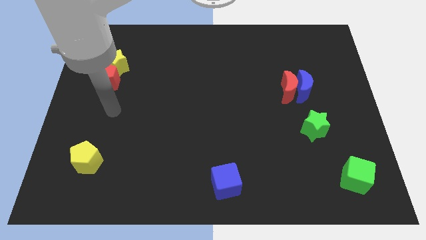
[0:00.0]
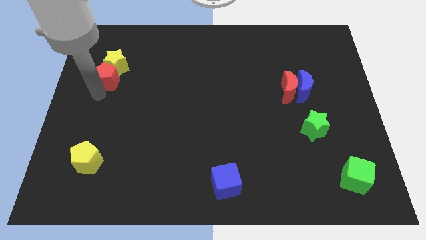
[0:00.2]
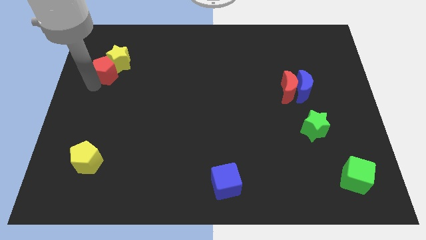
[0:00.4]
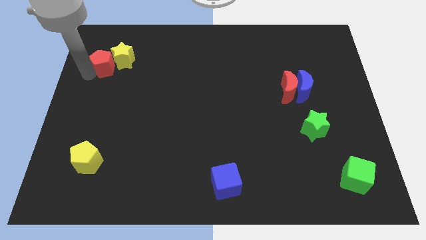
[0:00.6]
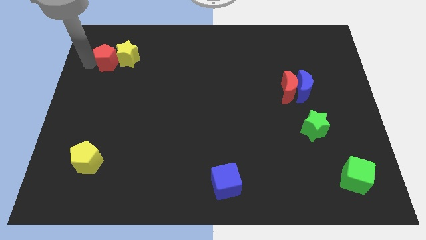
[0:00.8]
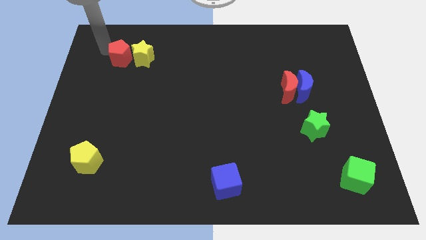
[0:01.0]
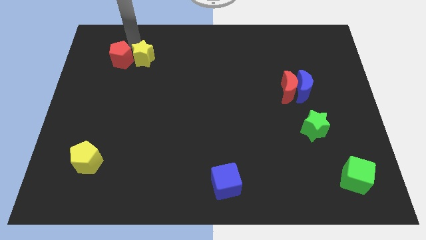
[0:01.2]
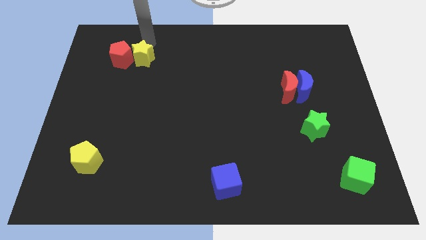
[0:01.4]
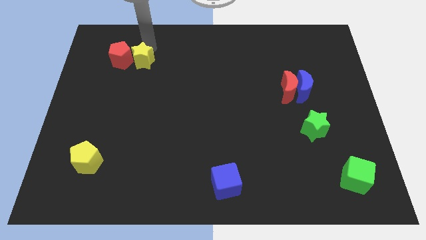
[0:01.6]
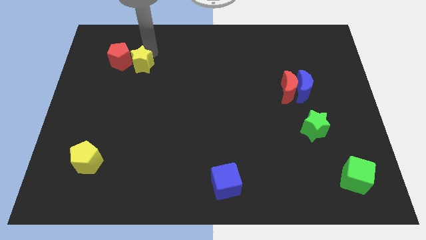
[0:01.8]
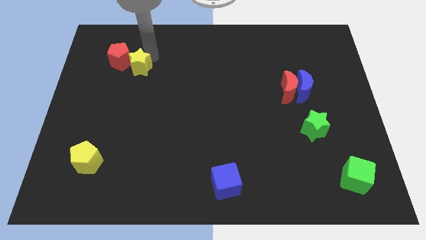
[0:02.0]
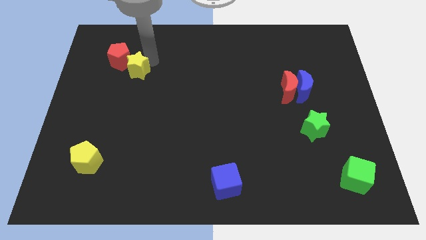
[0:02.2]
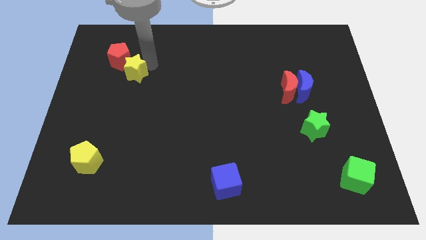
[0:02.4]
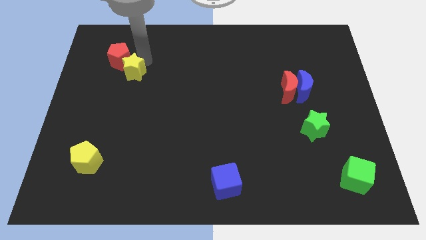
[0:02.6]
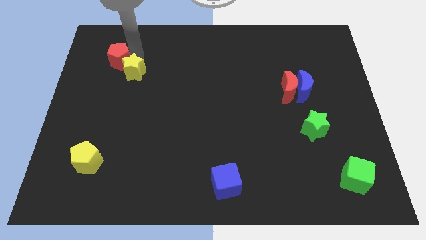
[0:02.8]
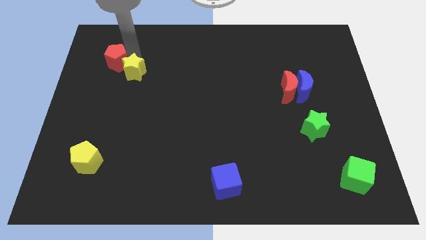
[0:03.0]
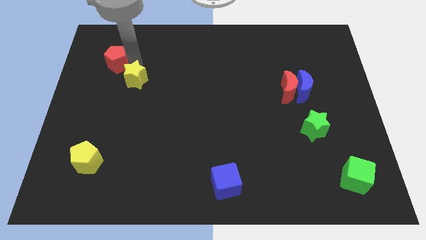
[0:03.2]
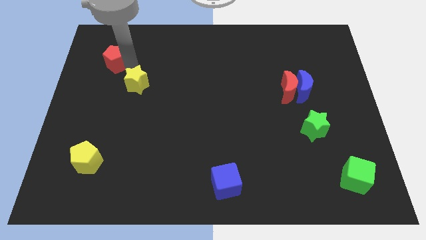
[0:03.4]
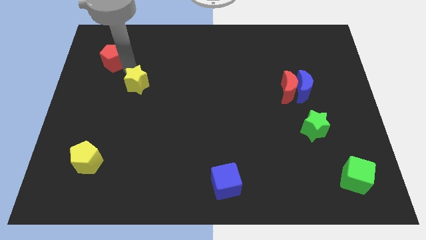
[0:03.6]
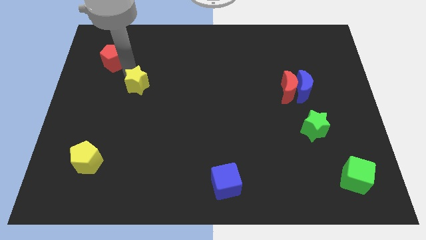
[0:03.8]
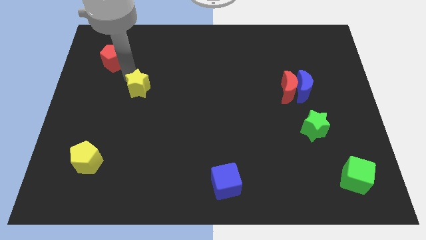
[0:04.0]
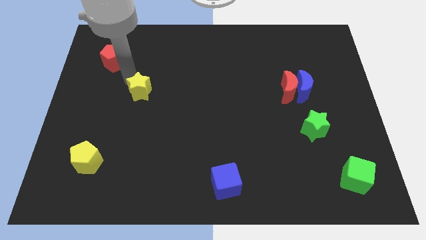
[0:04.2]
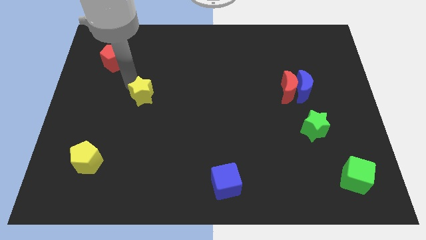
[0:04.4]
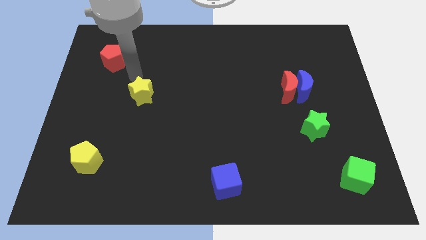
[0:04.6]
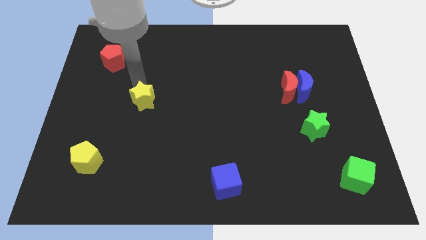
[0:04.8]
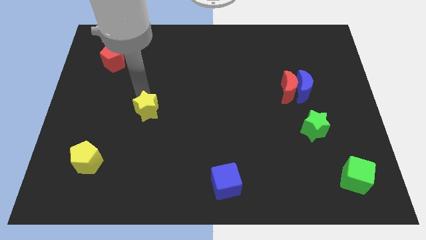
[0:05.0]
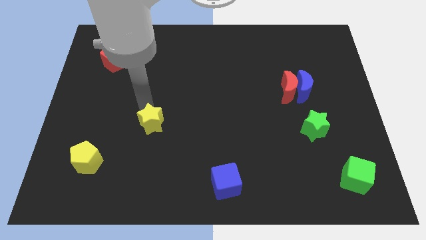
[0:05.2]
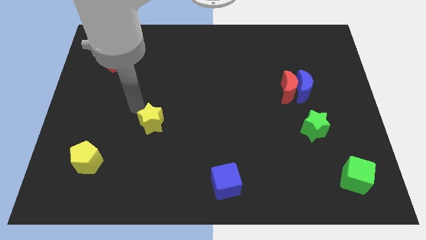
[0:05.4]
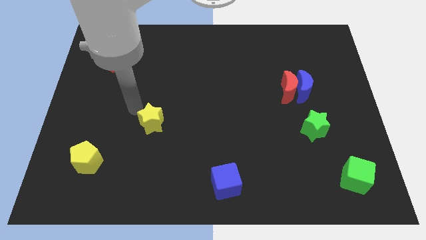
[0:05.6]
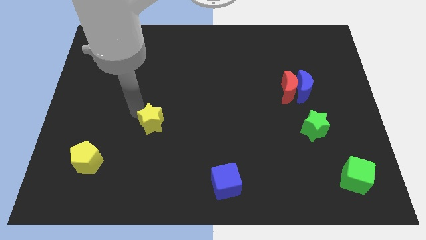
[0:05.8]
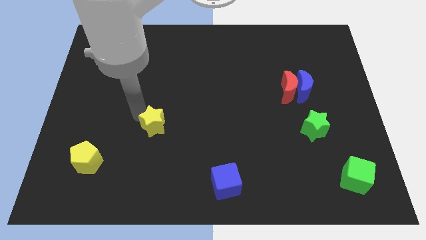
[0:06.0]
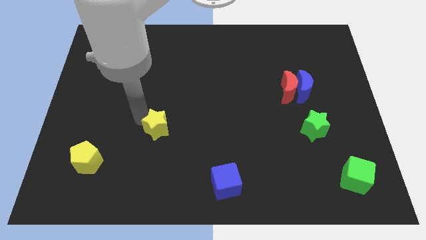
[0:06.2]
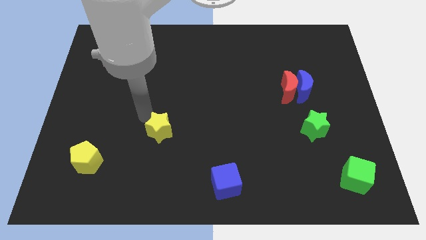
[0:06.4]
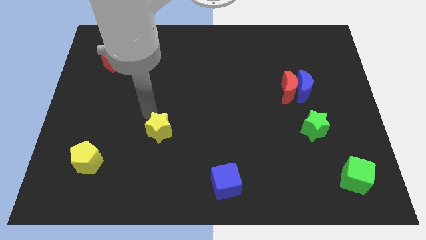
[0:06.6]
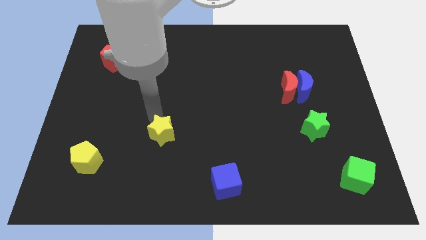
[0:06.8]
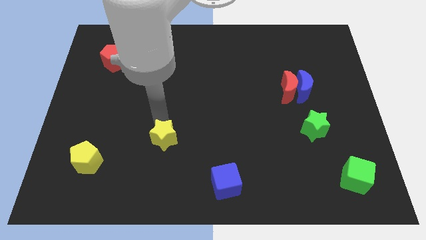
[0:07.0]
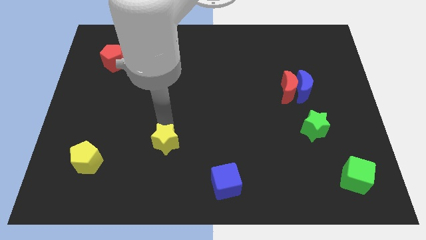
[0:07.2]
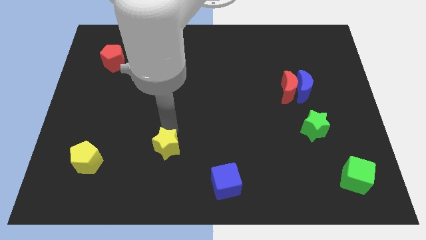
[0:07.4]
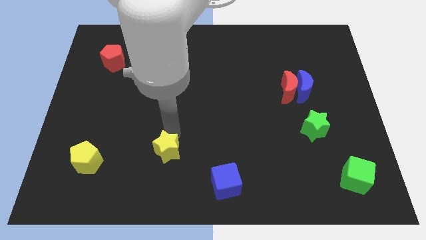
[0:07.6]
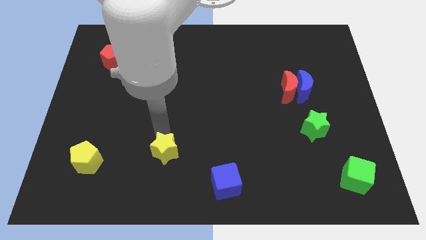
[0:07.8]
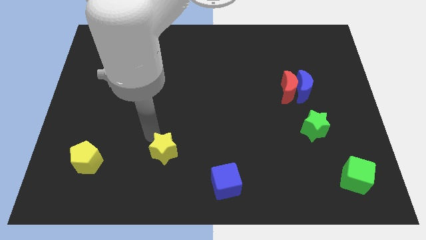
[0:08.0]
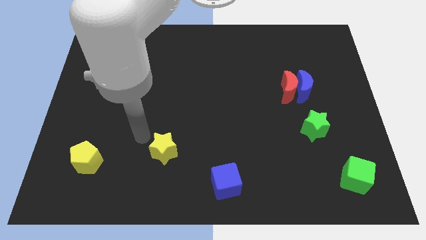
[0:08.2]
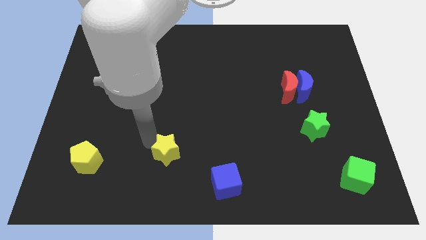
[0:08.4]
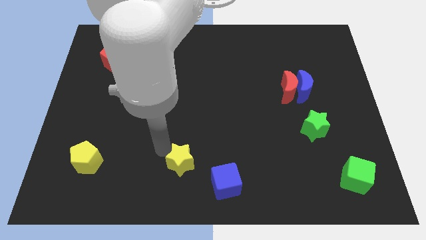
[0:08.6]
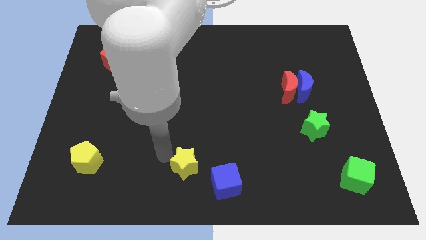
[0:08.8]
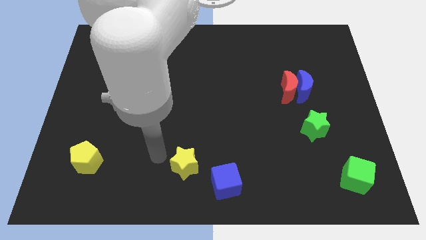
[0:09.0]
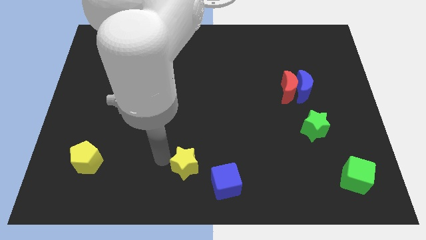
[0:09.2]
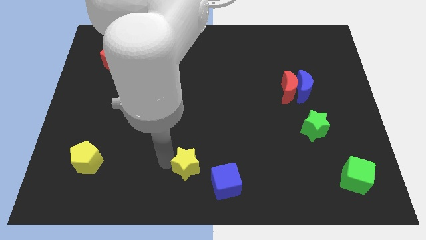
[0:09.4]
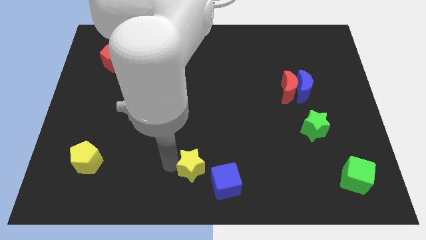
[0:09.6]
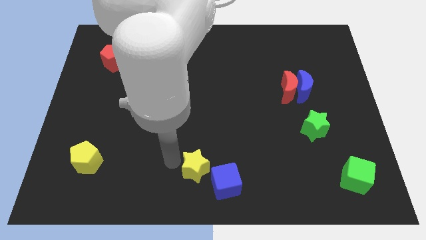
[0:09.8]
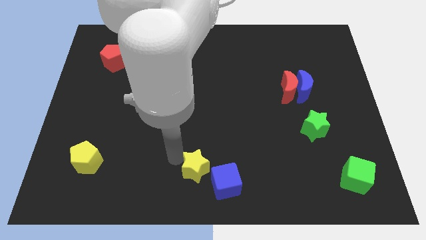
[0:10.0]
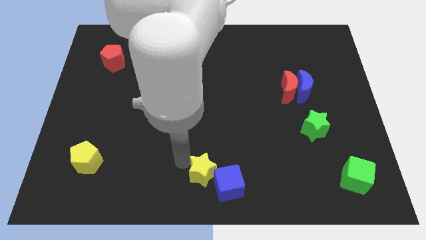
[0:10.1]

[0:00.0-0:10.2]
slide the yellow star close to the blue cube

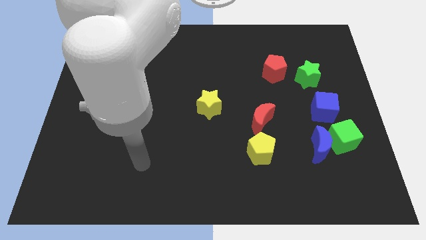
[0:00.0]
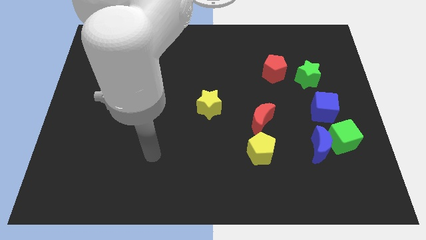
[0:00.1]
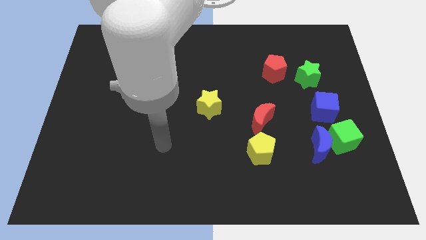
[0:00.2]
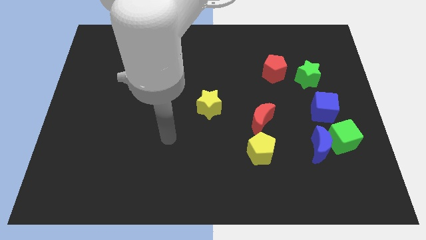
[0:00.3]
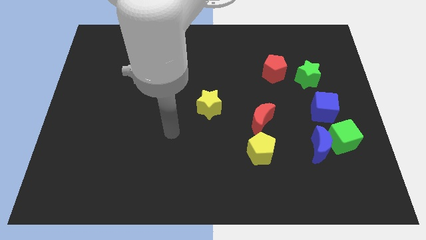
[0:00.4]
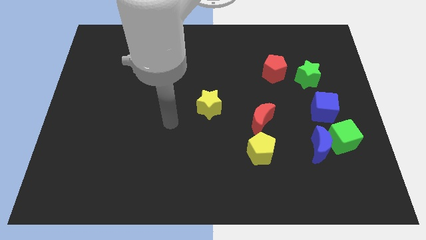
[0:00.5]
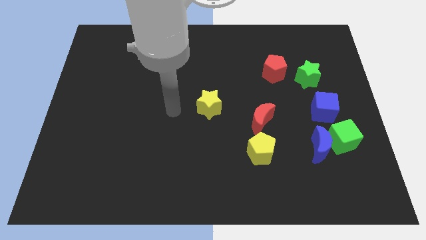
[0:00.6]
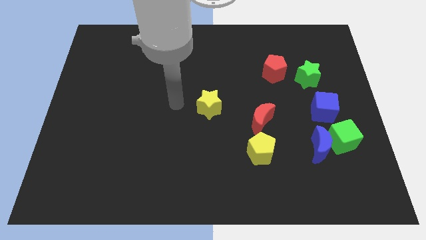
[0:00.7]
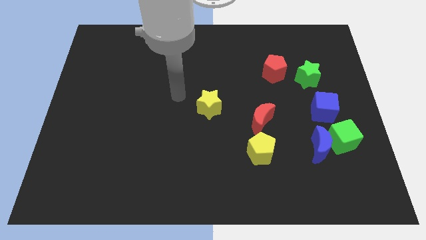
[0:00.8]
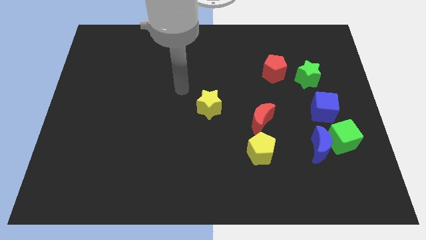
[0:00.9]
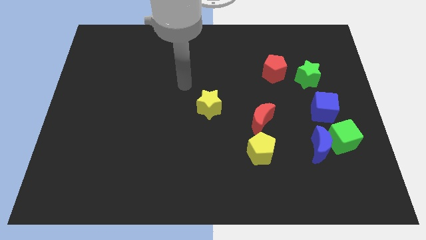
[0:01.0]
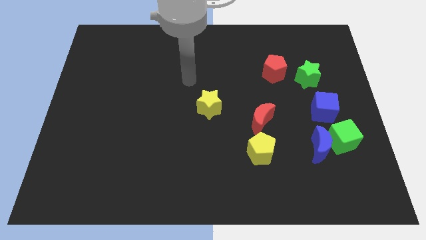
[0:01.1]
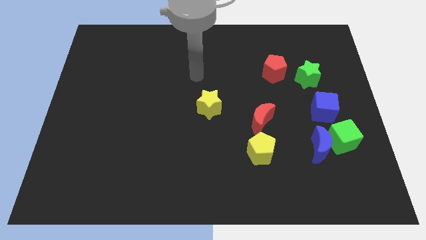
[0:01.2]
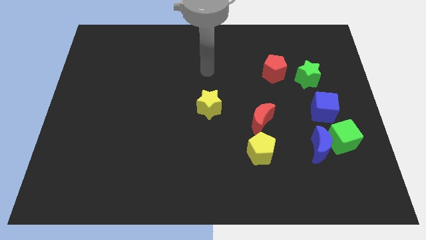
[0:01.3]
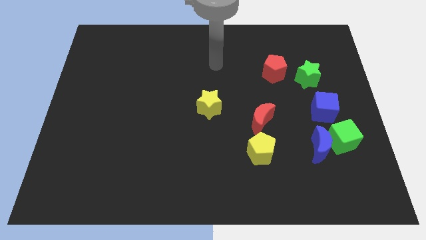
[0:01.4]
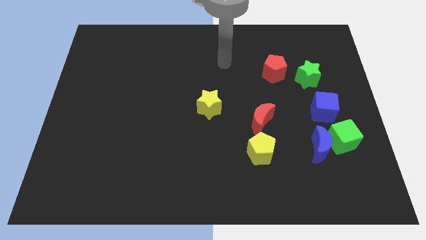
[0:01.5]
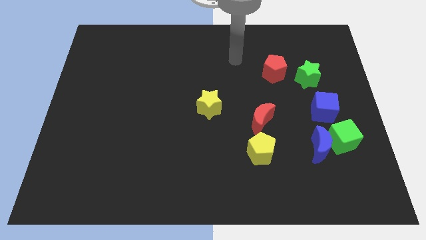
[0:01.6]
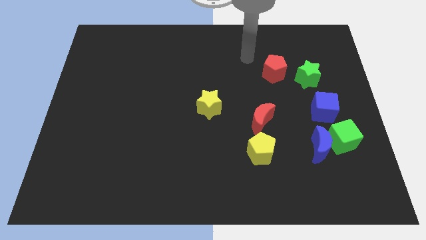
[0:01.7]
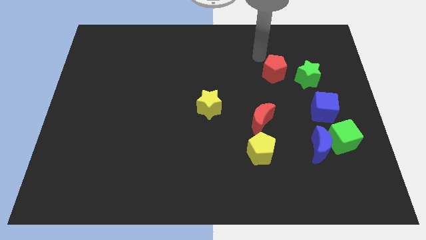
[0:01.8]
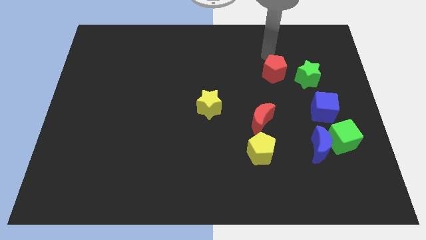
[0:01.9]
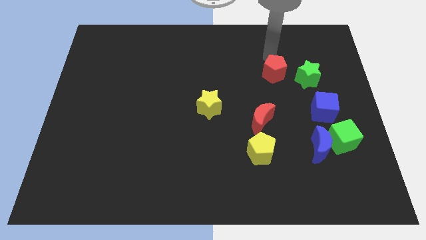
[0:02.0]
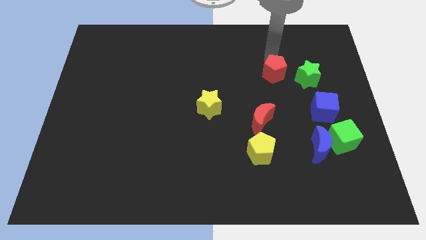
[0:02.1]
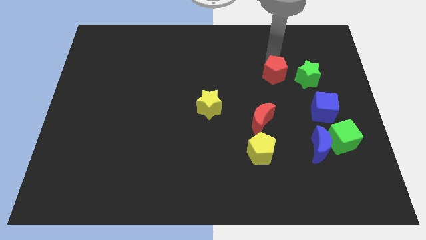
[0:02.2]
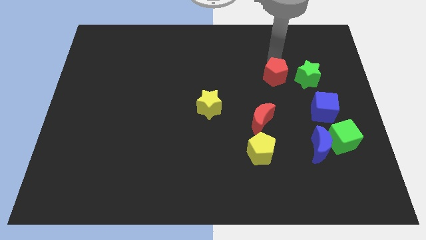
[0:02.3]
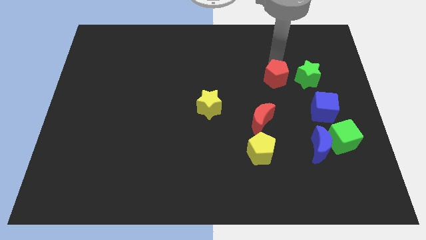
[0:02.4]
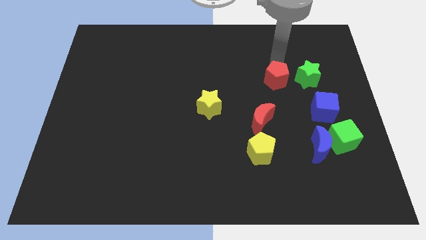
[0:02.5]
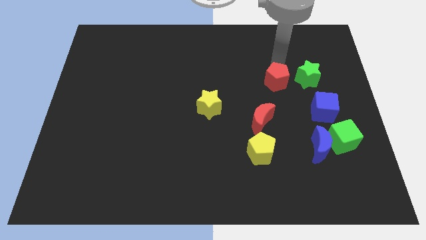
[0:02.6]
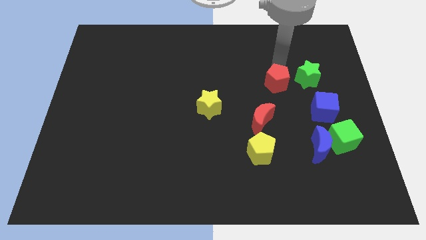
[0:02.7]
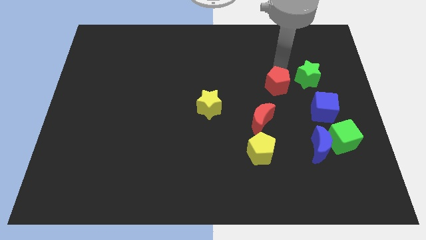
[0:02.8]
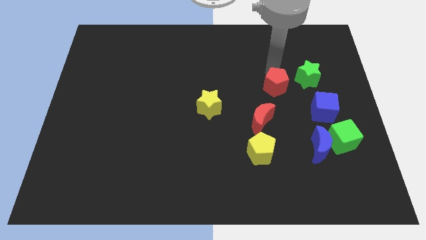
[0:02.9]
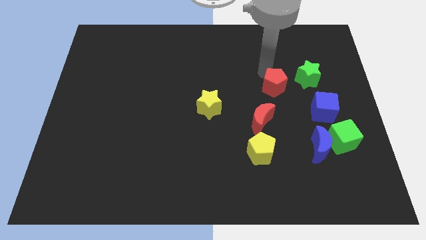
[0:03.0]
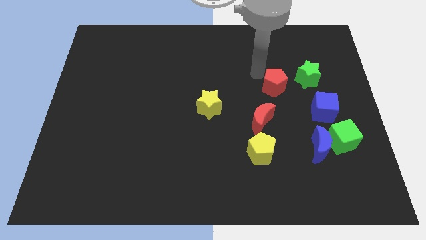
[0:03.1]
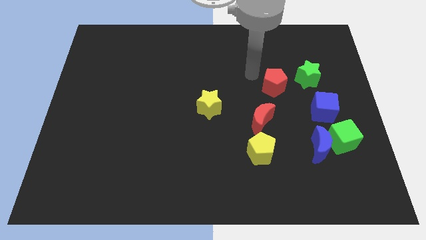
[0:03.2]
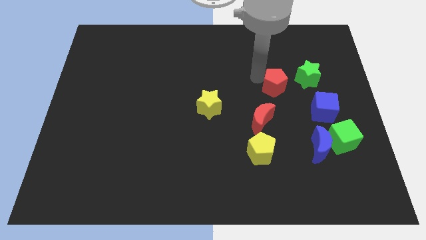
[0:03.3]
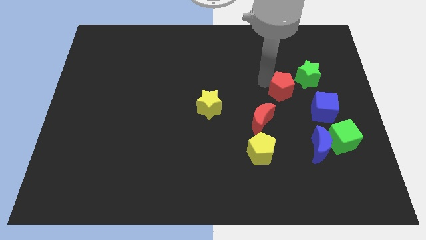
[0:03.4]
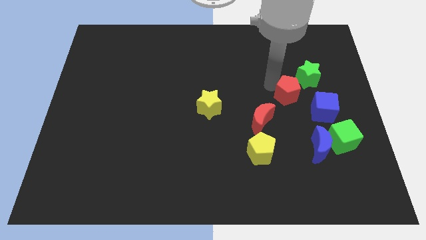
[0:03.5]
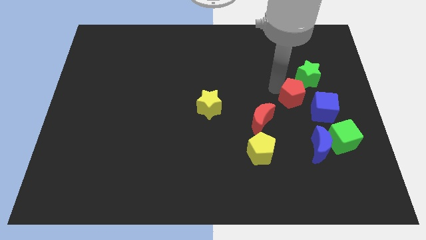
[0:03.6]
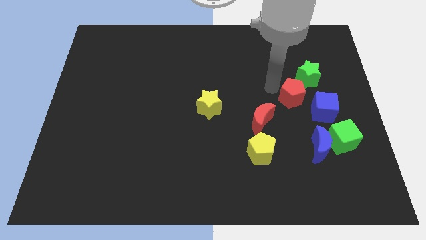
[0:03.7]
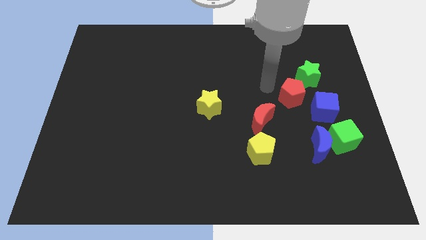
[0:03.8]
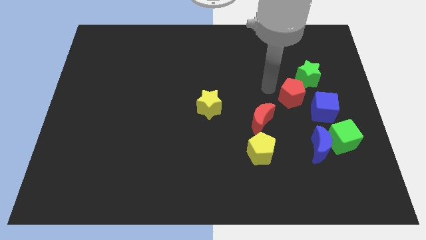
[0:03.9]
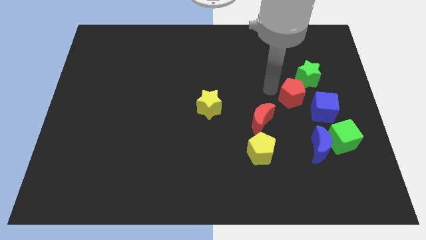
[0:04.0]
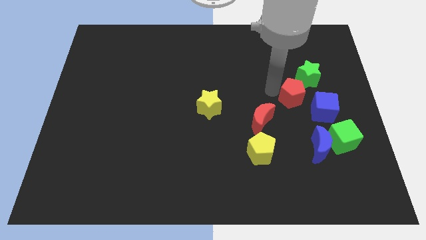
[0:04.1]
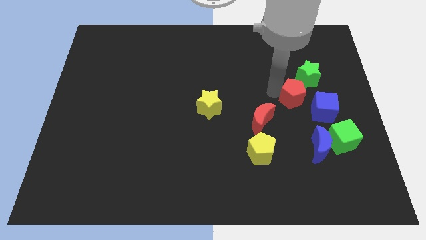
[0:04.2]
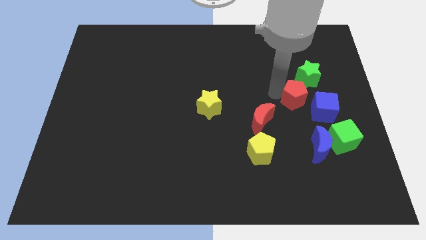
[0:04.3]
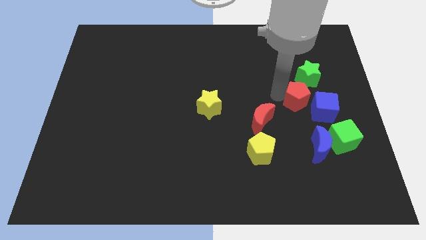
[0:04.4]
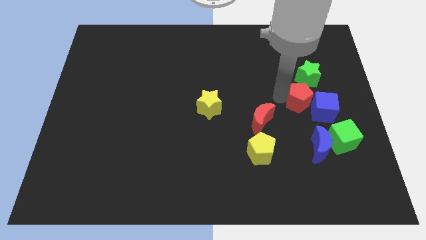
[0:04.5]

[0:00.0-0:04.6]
push the red pentagon next to the blue cube
